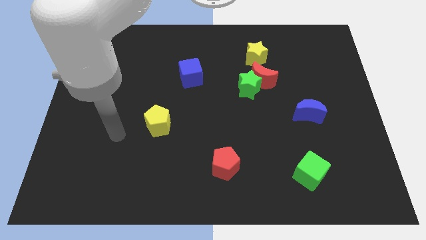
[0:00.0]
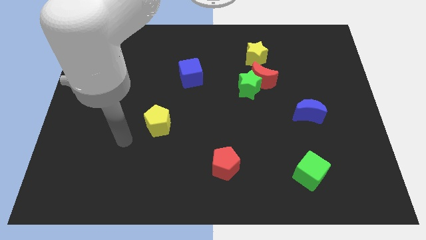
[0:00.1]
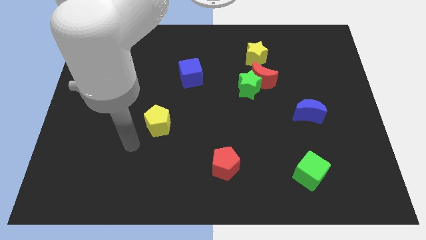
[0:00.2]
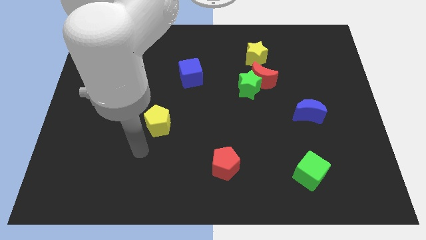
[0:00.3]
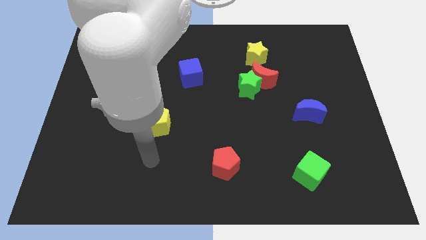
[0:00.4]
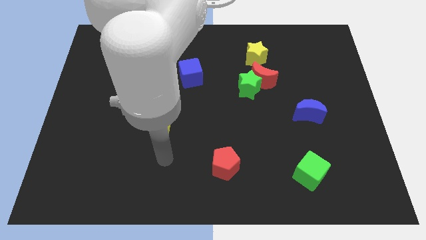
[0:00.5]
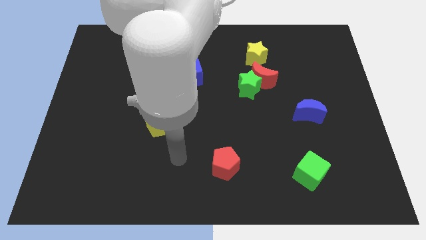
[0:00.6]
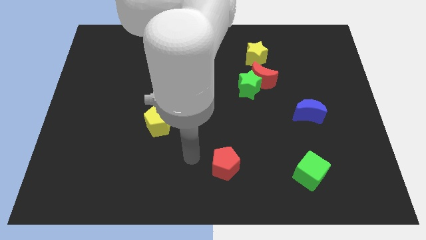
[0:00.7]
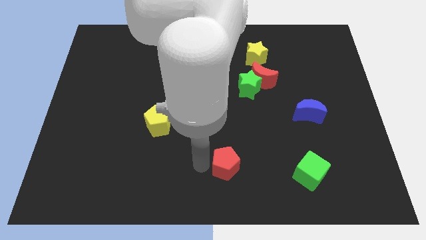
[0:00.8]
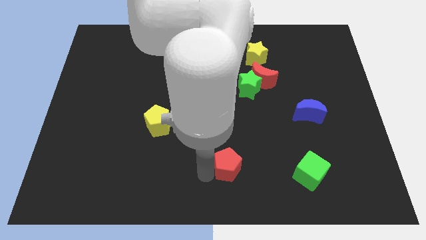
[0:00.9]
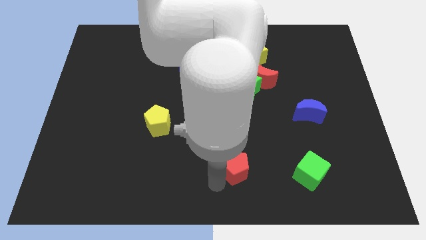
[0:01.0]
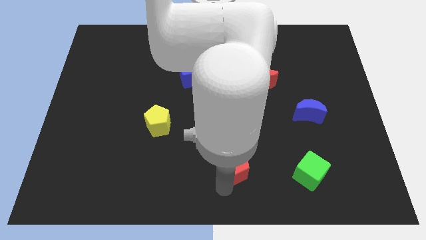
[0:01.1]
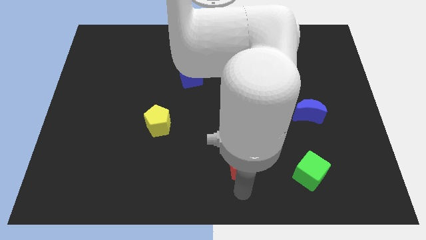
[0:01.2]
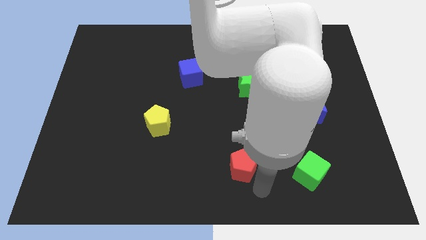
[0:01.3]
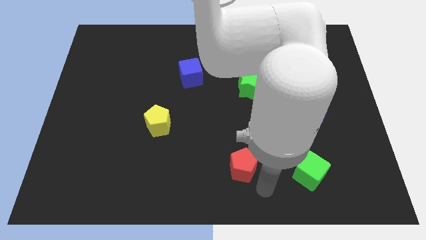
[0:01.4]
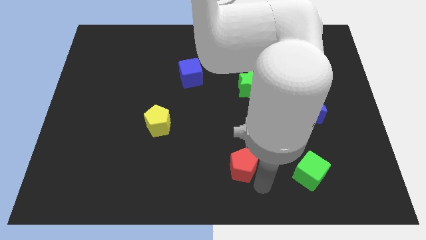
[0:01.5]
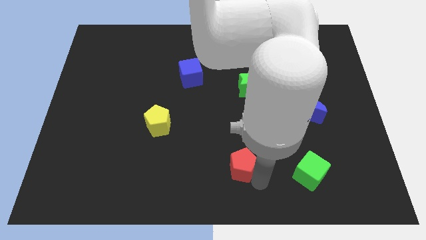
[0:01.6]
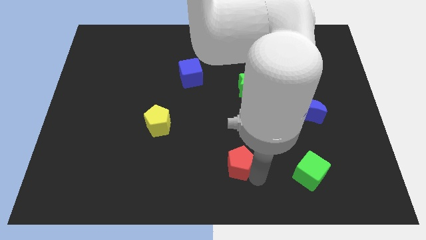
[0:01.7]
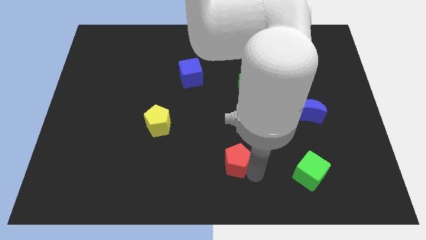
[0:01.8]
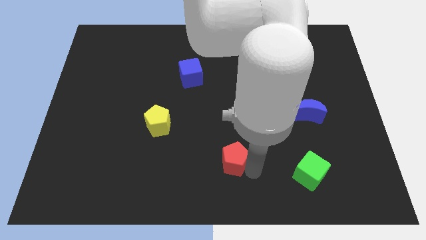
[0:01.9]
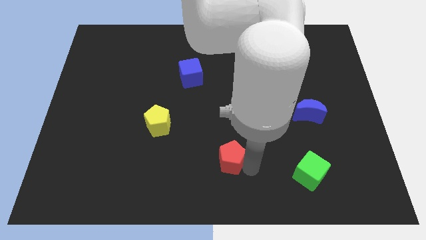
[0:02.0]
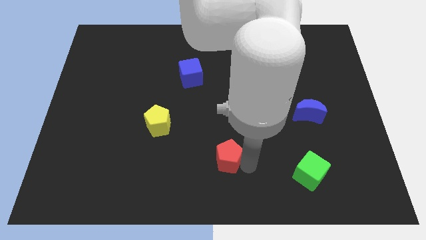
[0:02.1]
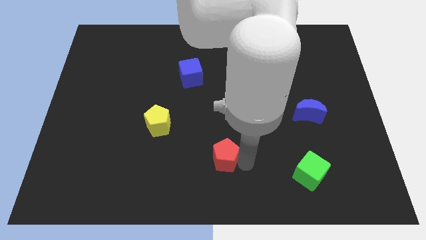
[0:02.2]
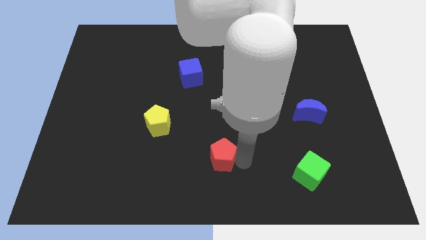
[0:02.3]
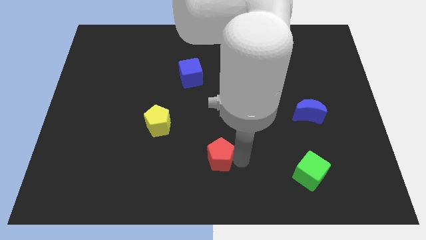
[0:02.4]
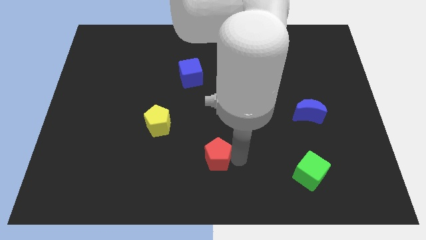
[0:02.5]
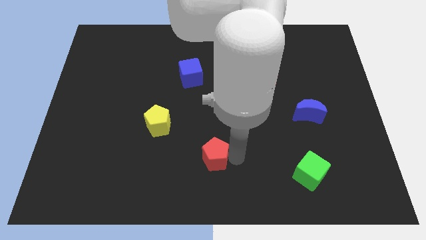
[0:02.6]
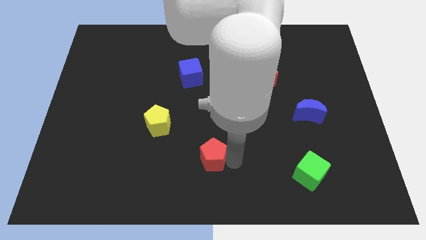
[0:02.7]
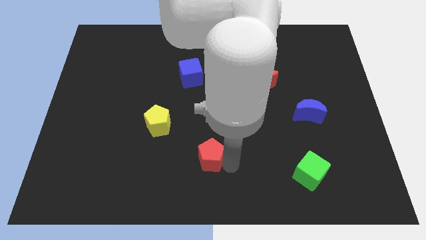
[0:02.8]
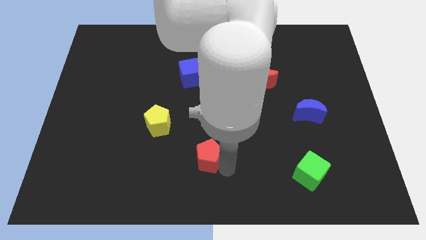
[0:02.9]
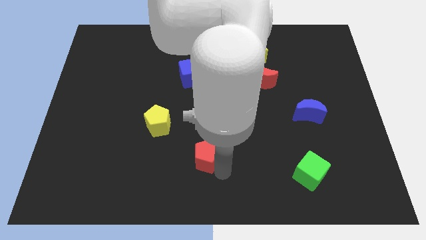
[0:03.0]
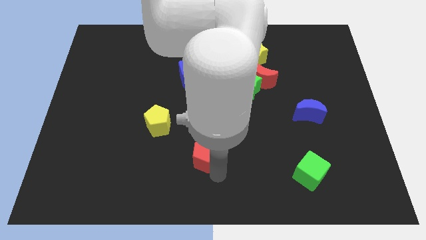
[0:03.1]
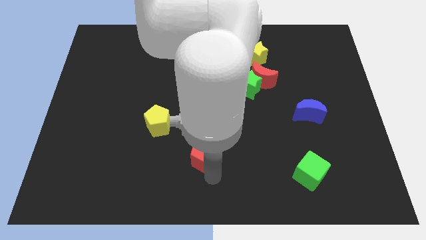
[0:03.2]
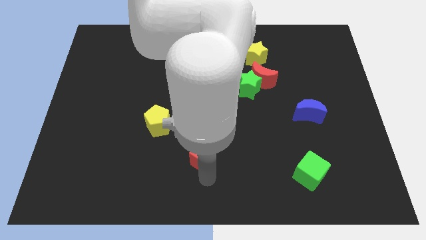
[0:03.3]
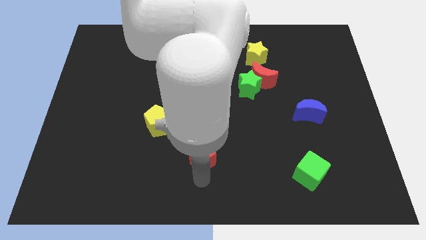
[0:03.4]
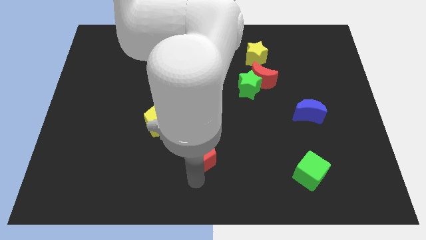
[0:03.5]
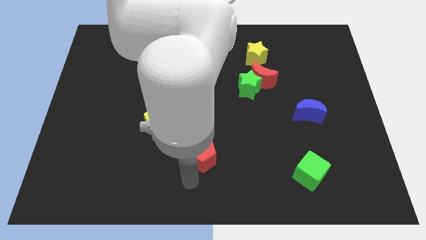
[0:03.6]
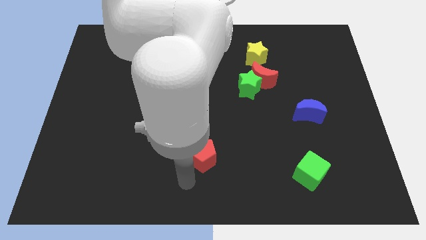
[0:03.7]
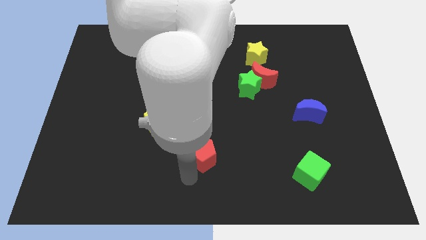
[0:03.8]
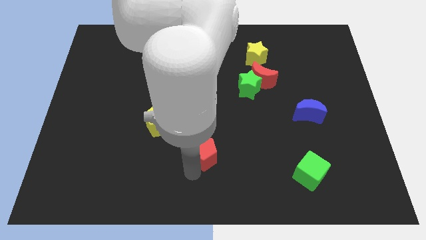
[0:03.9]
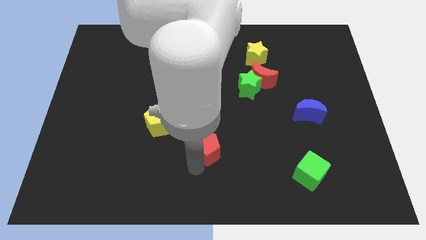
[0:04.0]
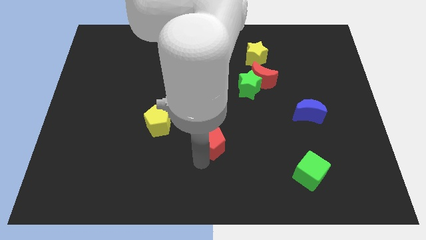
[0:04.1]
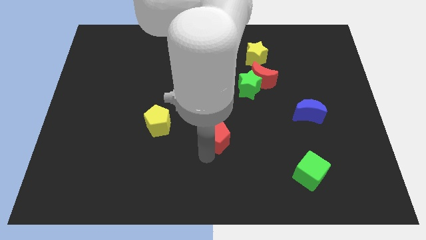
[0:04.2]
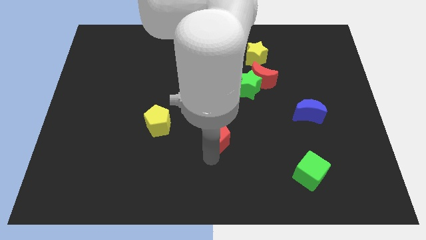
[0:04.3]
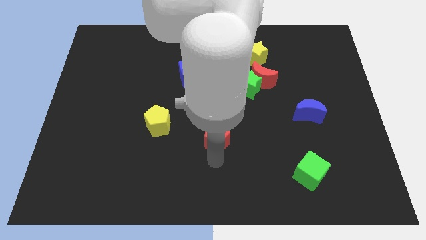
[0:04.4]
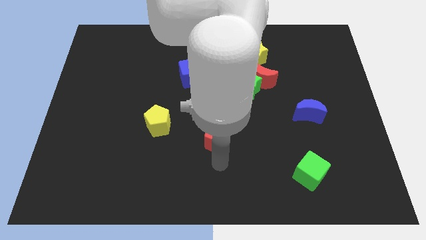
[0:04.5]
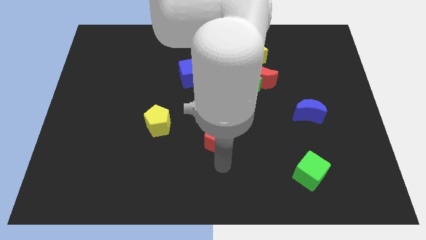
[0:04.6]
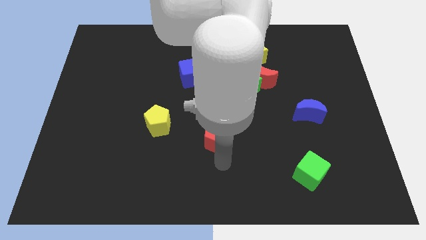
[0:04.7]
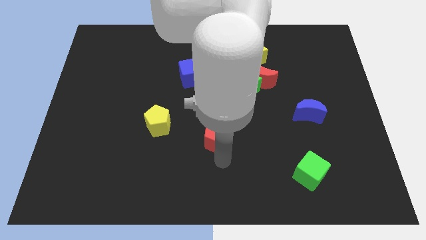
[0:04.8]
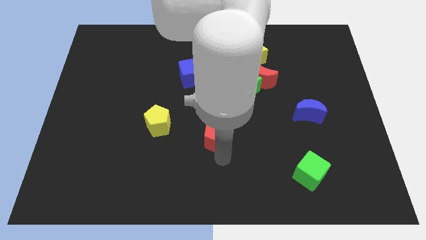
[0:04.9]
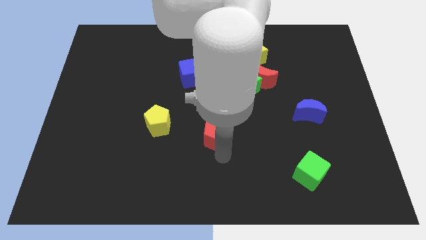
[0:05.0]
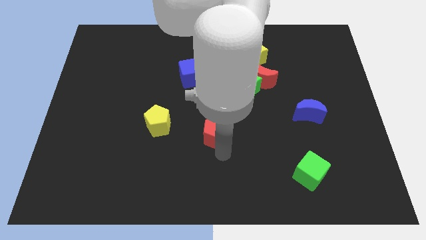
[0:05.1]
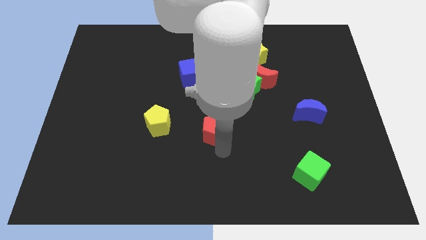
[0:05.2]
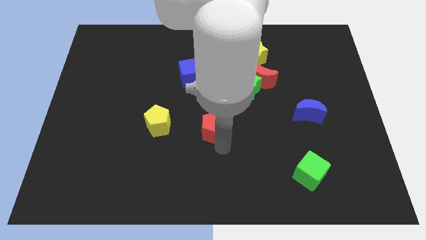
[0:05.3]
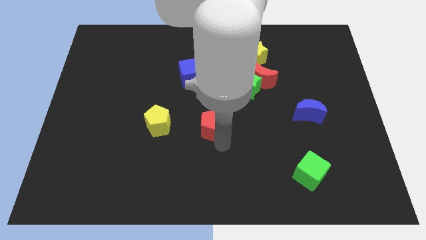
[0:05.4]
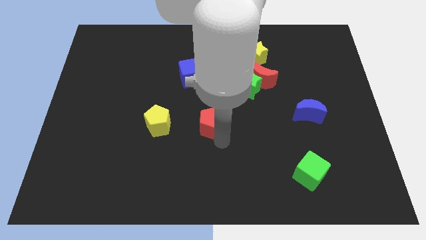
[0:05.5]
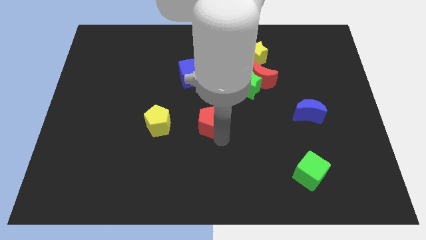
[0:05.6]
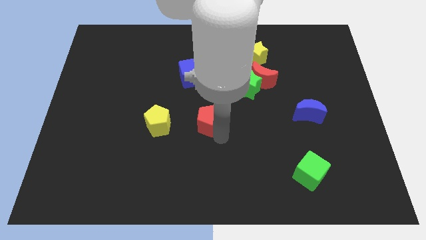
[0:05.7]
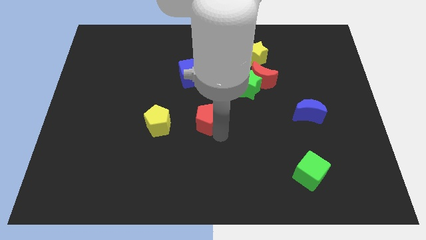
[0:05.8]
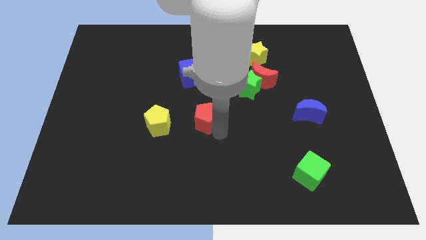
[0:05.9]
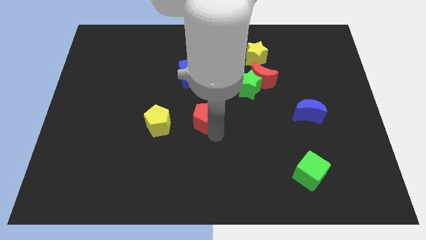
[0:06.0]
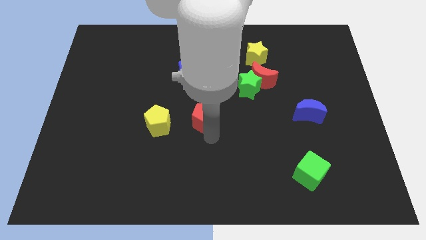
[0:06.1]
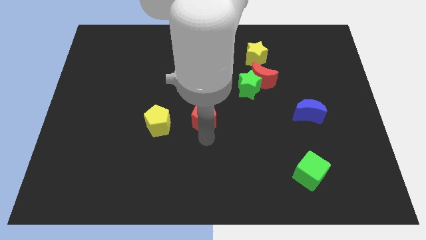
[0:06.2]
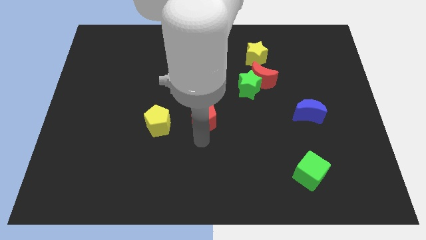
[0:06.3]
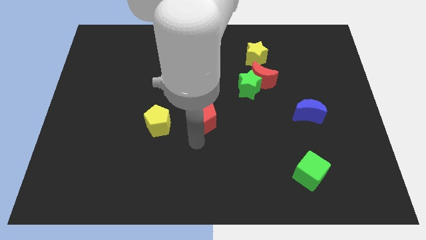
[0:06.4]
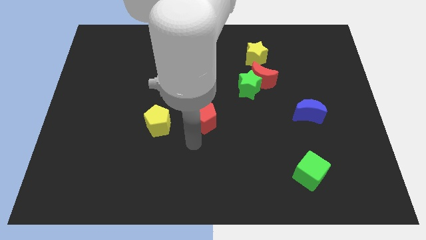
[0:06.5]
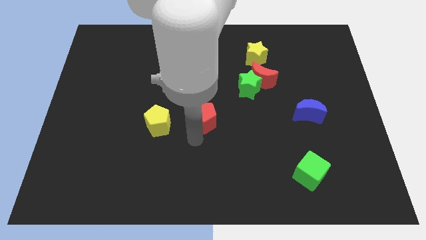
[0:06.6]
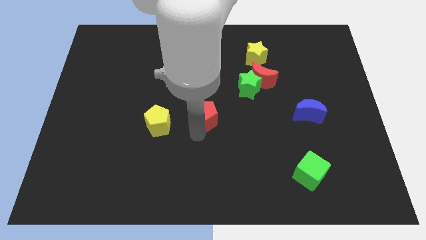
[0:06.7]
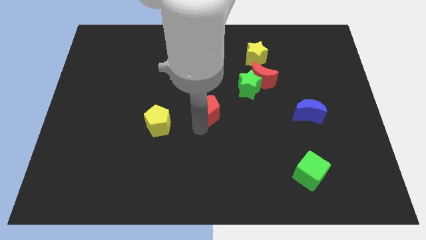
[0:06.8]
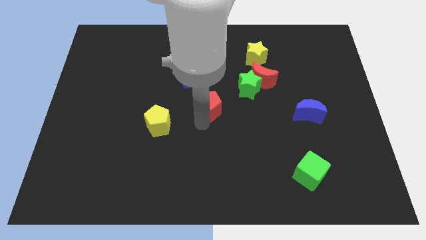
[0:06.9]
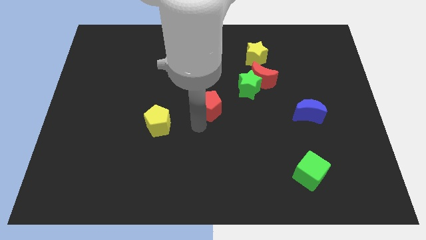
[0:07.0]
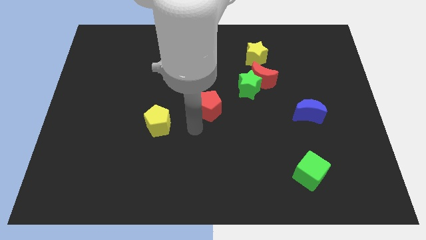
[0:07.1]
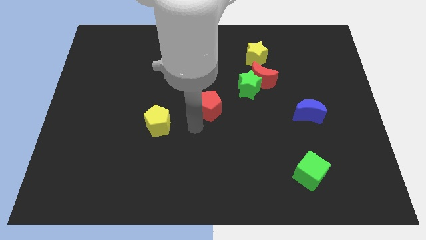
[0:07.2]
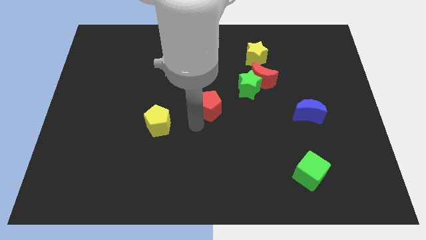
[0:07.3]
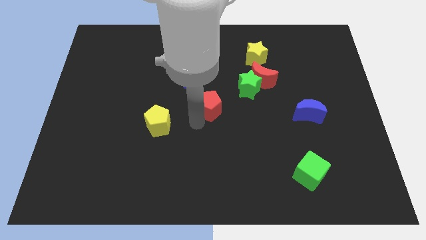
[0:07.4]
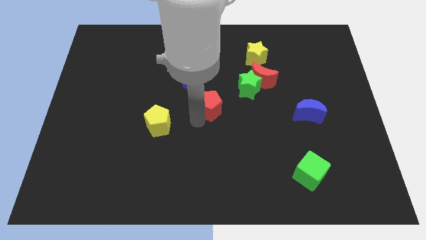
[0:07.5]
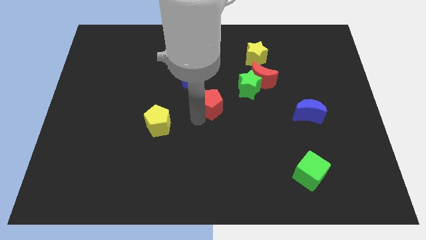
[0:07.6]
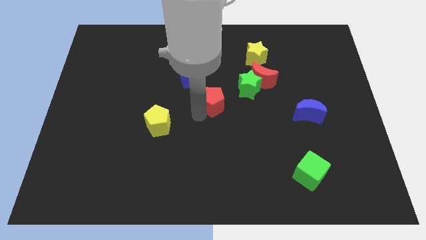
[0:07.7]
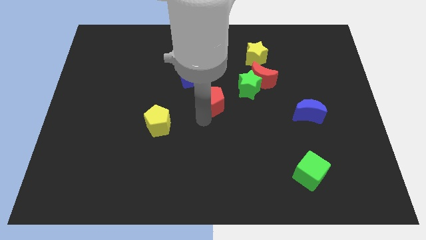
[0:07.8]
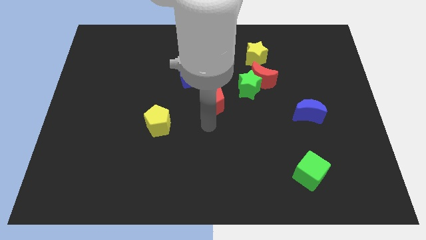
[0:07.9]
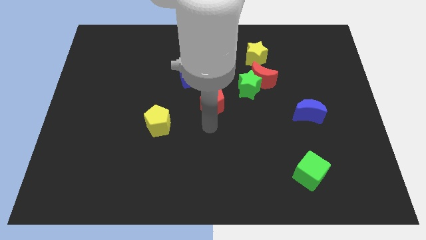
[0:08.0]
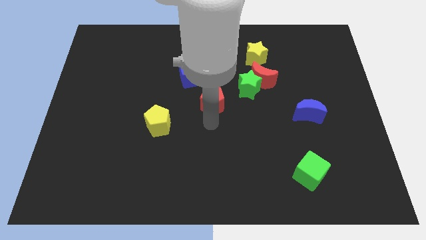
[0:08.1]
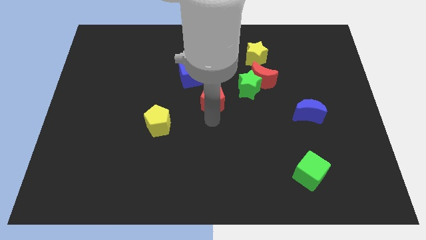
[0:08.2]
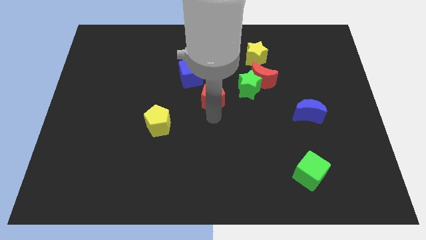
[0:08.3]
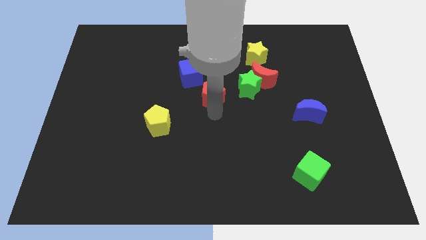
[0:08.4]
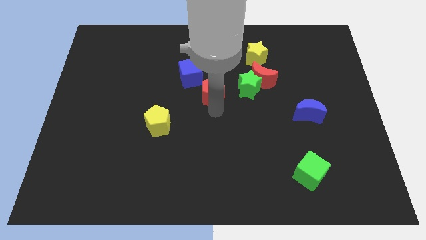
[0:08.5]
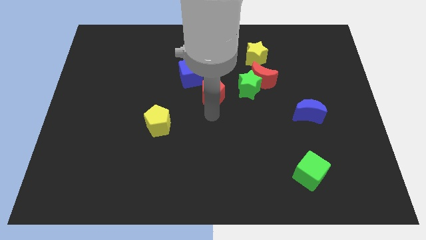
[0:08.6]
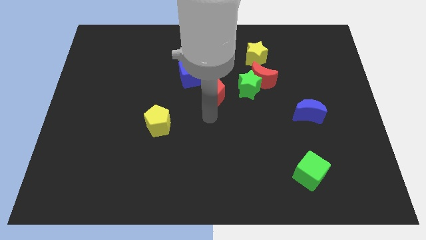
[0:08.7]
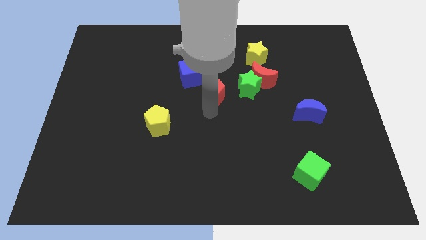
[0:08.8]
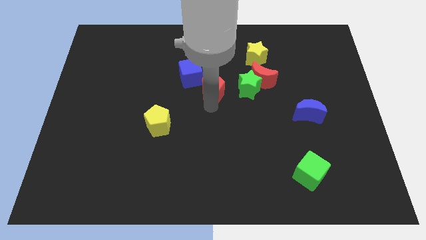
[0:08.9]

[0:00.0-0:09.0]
move the red pentagon up
